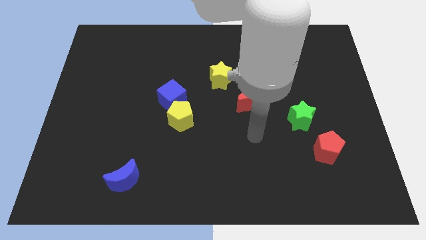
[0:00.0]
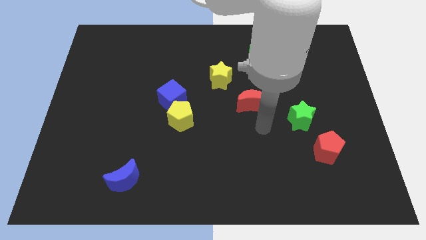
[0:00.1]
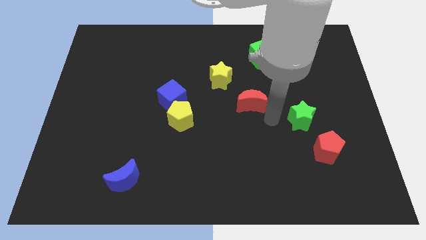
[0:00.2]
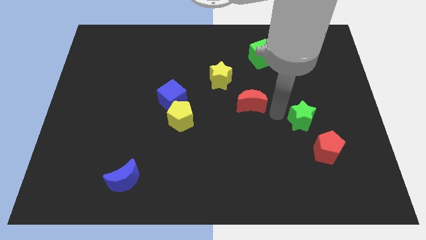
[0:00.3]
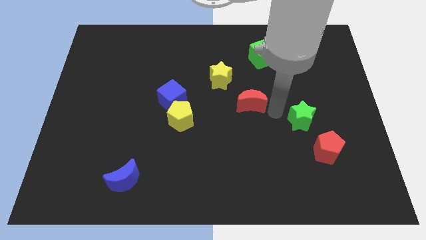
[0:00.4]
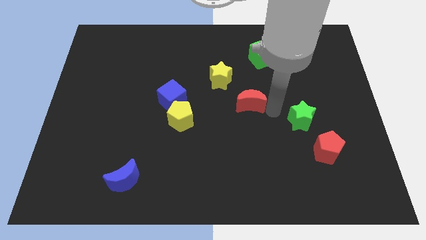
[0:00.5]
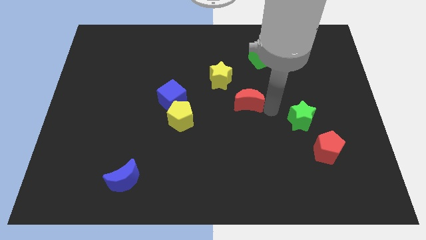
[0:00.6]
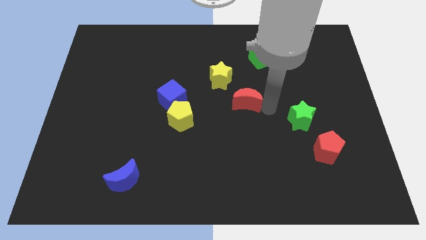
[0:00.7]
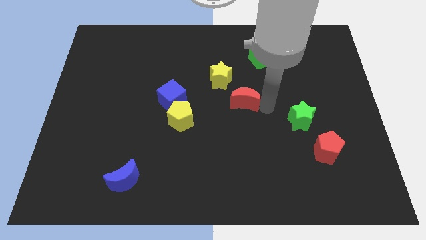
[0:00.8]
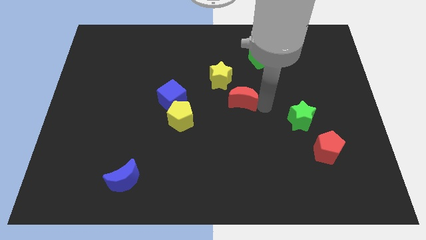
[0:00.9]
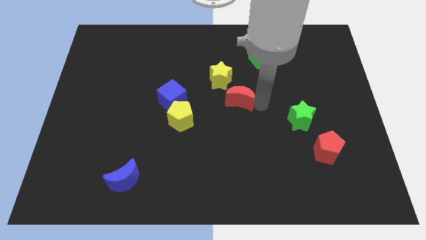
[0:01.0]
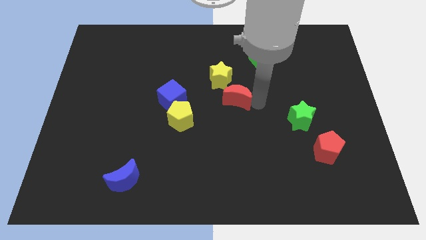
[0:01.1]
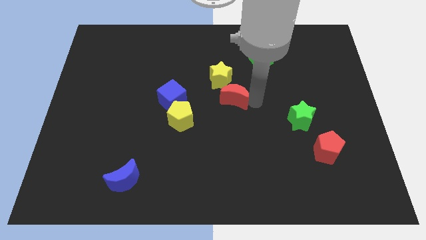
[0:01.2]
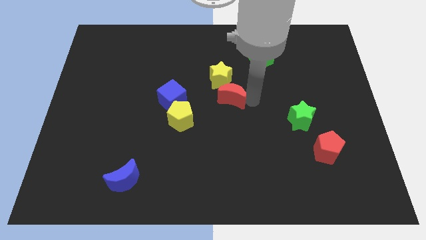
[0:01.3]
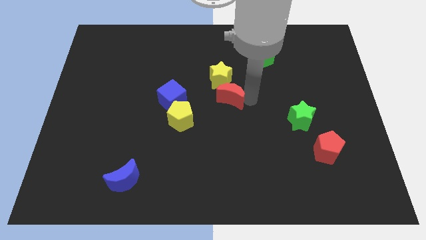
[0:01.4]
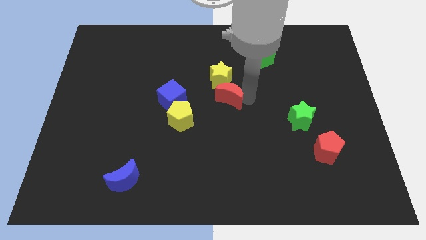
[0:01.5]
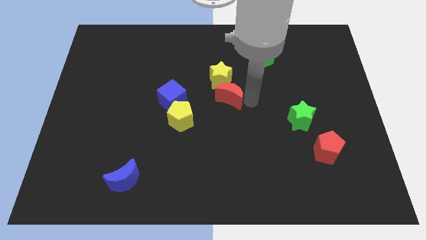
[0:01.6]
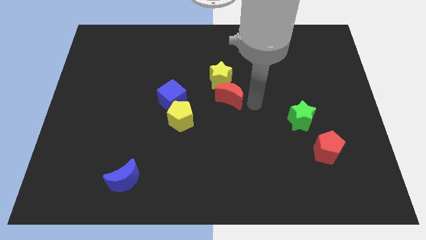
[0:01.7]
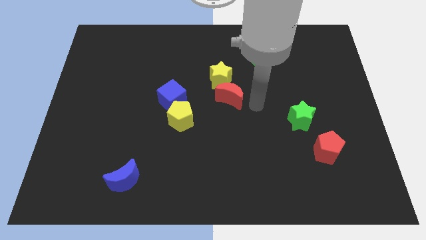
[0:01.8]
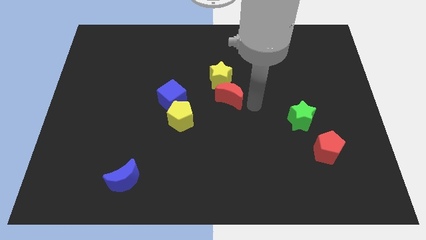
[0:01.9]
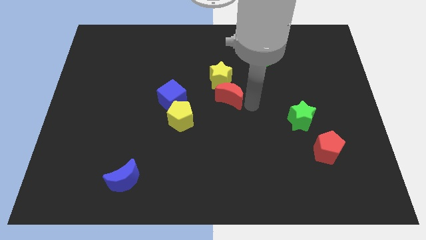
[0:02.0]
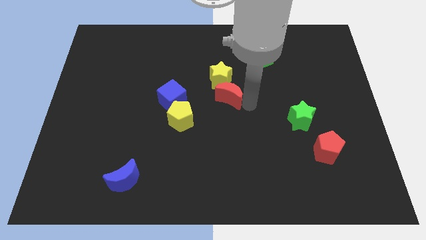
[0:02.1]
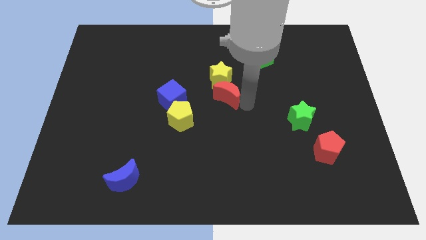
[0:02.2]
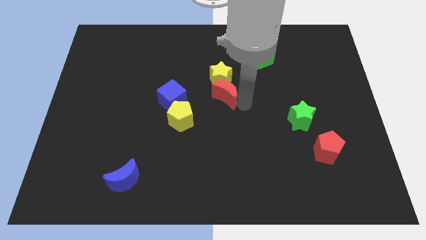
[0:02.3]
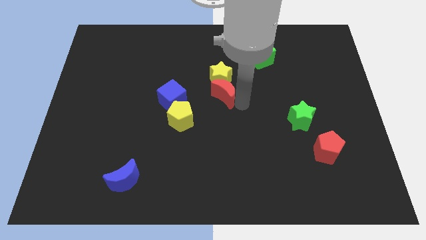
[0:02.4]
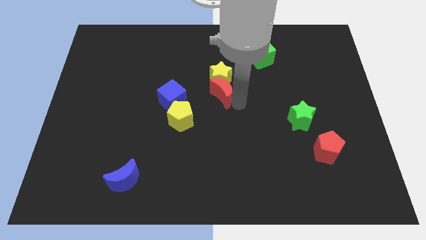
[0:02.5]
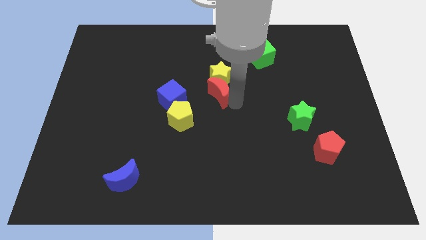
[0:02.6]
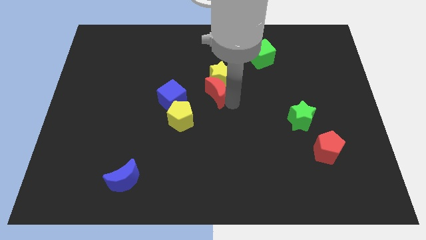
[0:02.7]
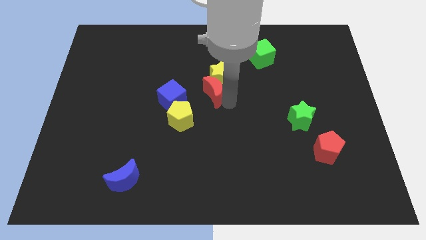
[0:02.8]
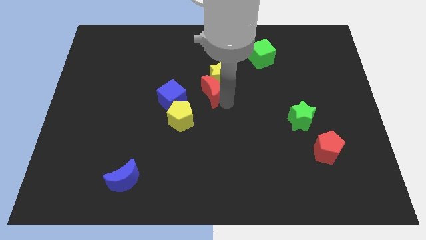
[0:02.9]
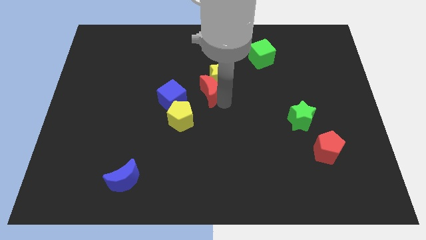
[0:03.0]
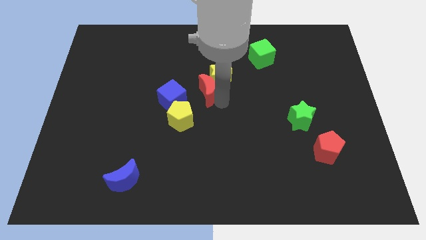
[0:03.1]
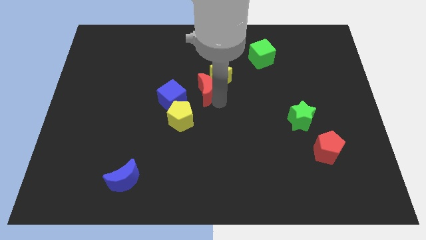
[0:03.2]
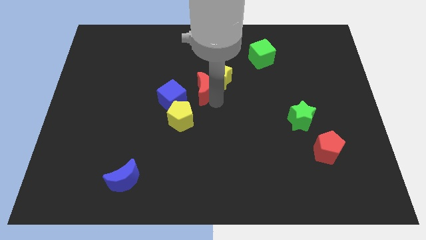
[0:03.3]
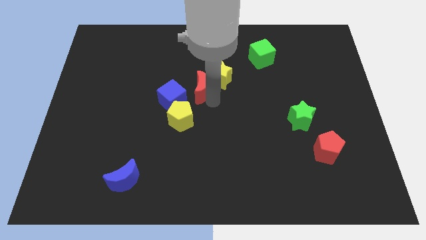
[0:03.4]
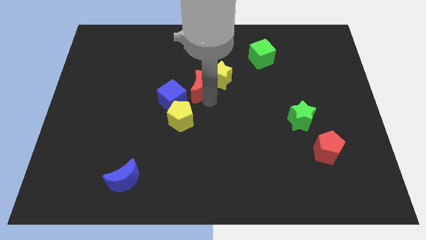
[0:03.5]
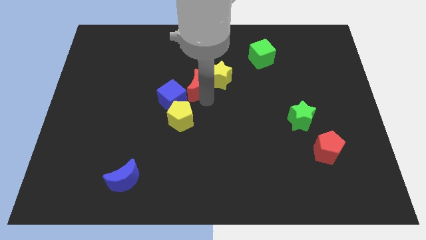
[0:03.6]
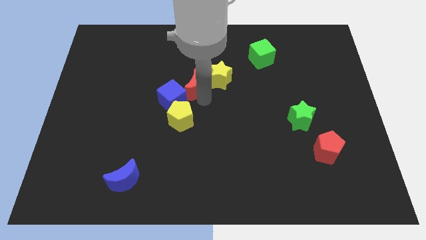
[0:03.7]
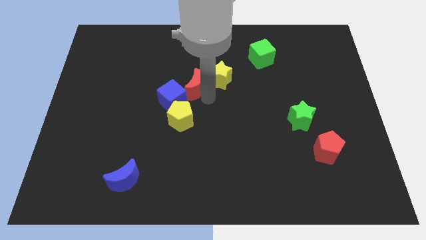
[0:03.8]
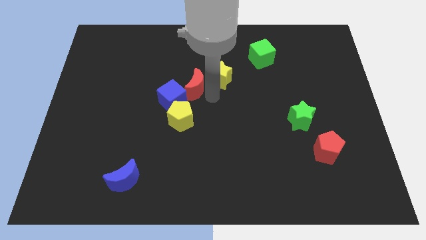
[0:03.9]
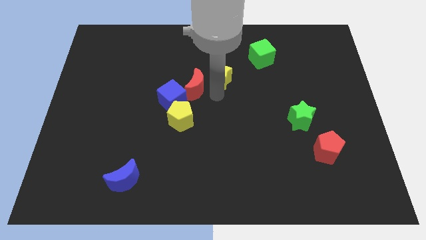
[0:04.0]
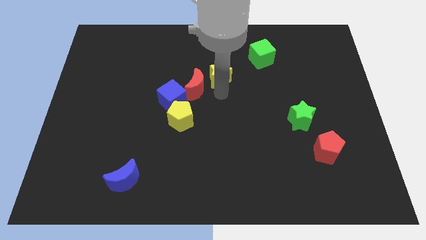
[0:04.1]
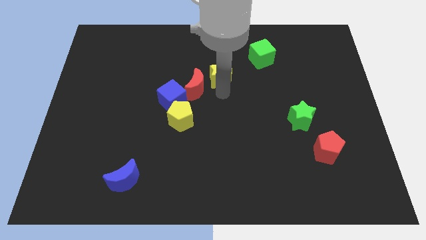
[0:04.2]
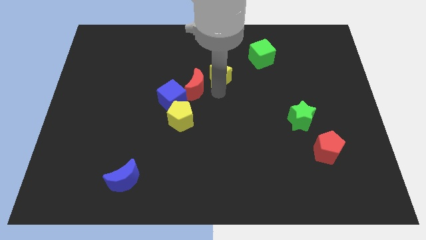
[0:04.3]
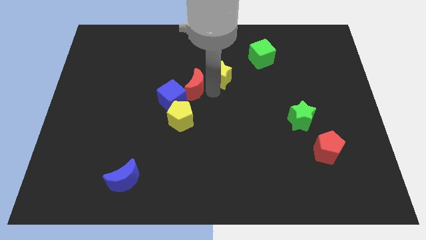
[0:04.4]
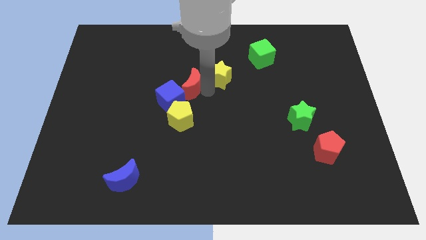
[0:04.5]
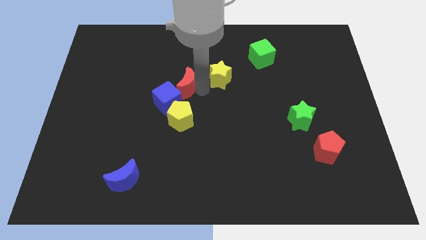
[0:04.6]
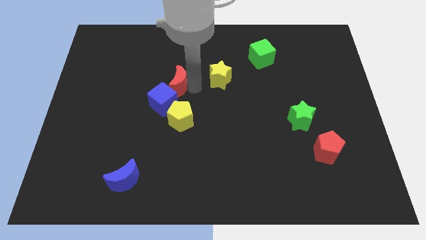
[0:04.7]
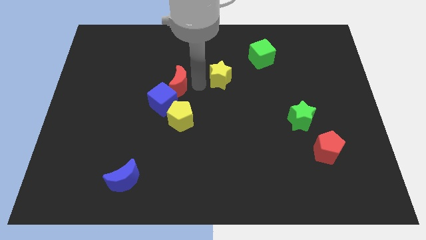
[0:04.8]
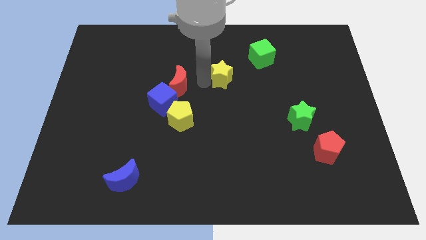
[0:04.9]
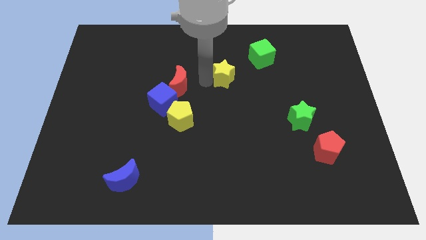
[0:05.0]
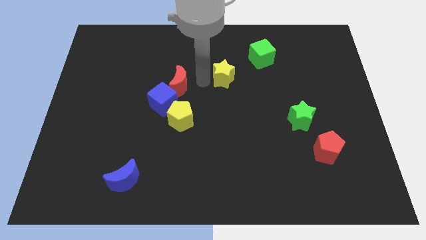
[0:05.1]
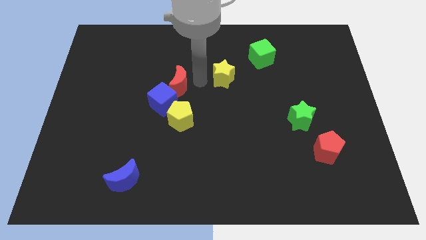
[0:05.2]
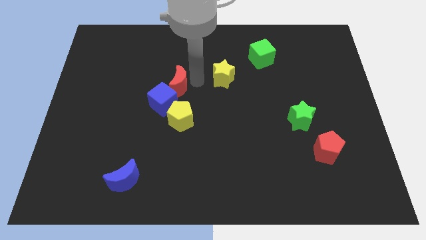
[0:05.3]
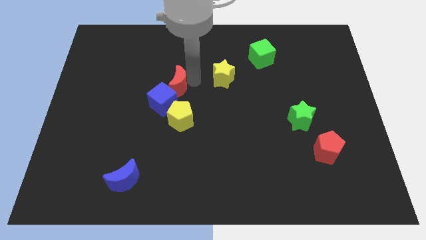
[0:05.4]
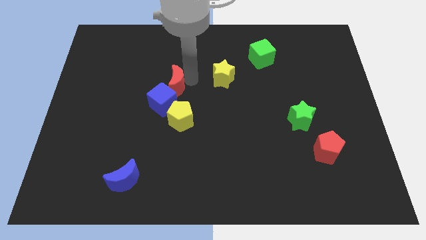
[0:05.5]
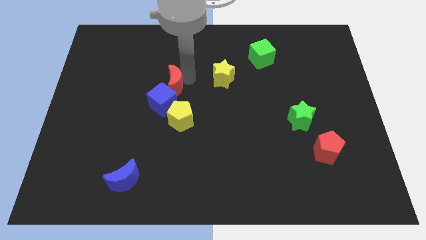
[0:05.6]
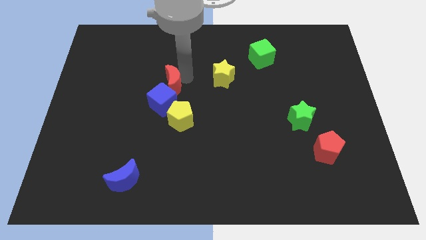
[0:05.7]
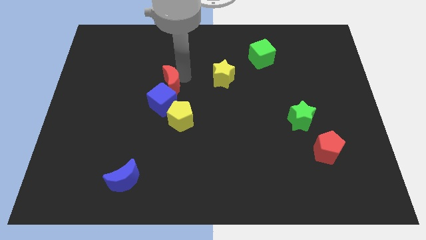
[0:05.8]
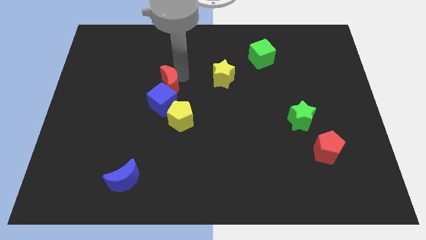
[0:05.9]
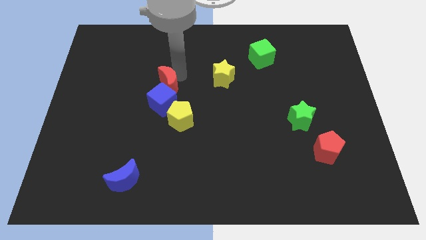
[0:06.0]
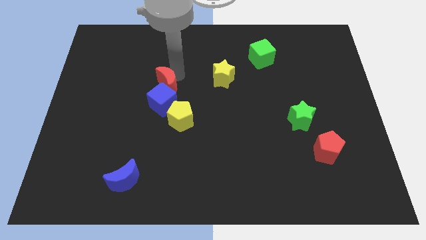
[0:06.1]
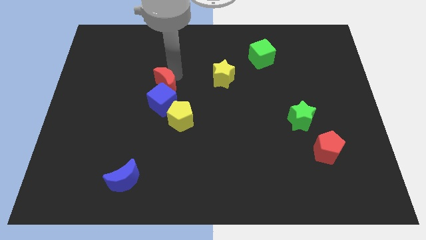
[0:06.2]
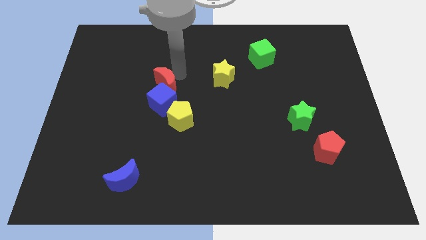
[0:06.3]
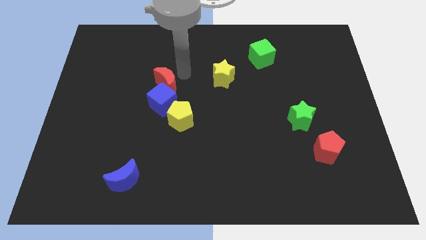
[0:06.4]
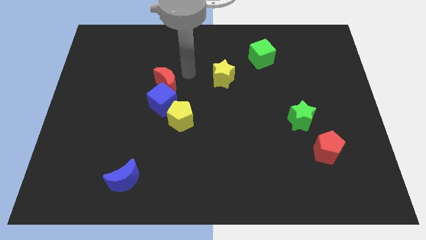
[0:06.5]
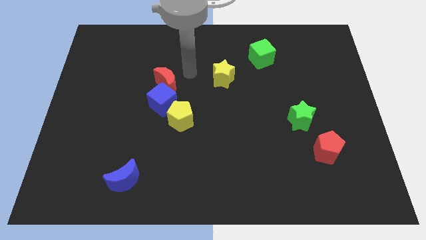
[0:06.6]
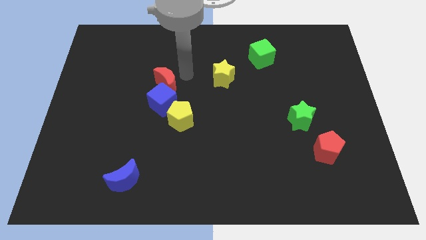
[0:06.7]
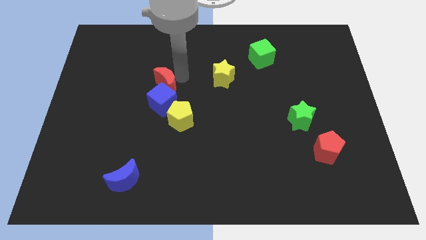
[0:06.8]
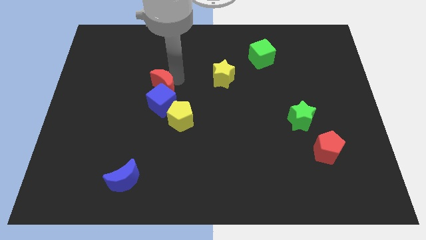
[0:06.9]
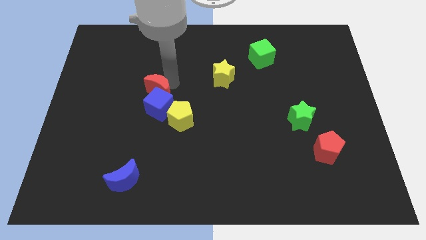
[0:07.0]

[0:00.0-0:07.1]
move the red moon to the left

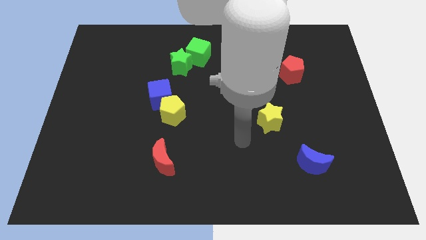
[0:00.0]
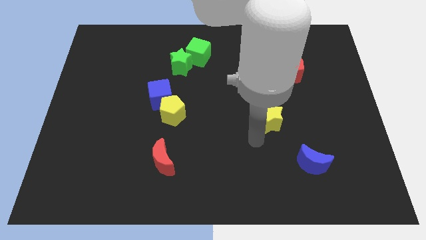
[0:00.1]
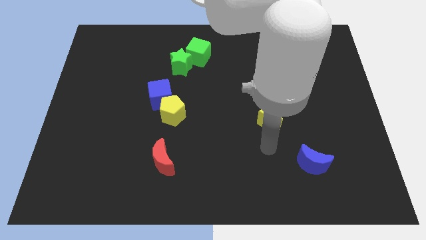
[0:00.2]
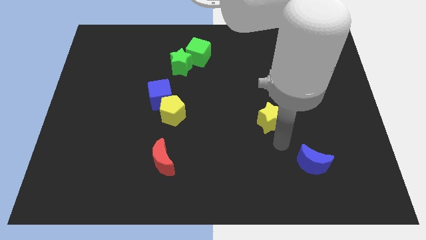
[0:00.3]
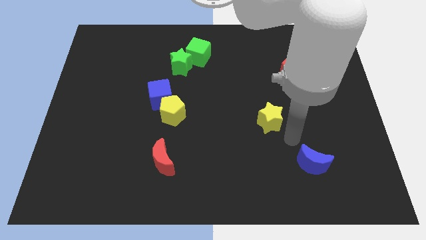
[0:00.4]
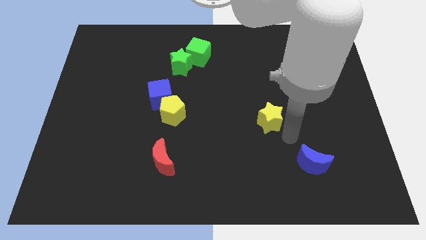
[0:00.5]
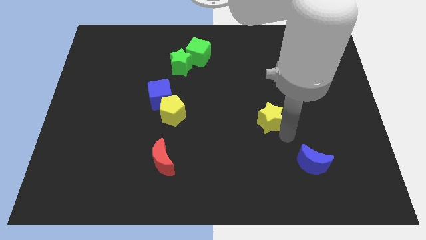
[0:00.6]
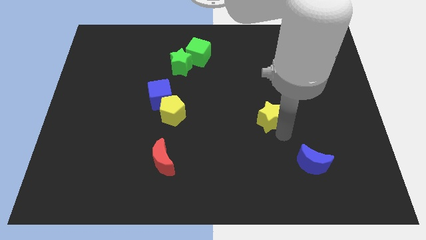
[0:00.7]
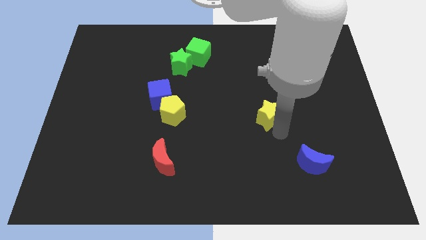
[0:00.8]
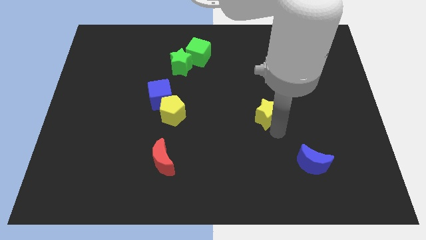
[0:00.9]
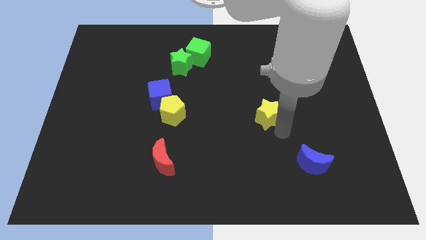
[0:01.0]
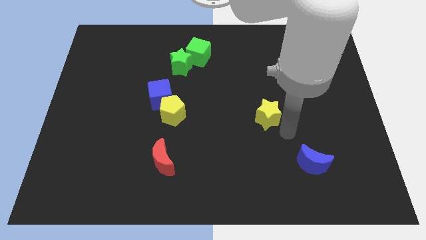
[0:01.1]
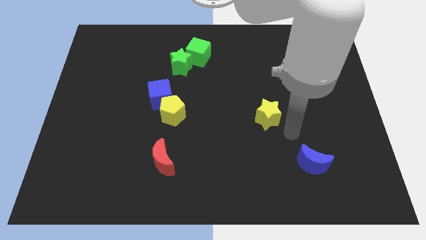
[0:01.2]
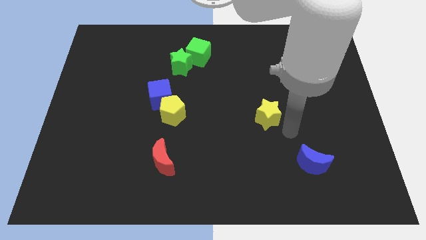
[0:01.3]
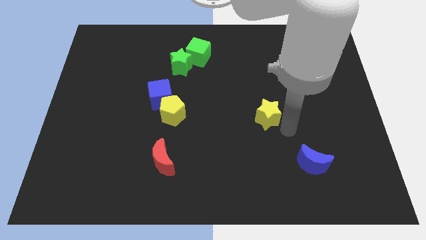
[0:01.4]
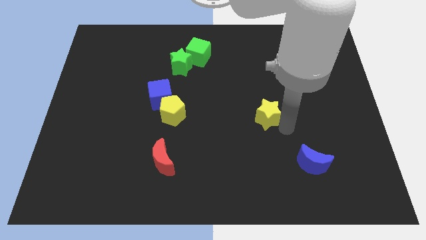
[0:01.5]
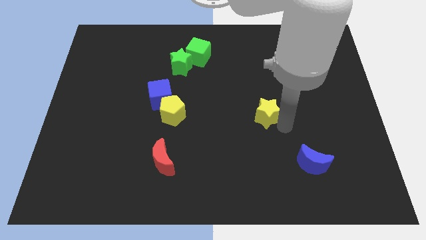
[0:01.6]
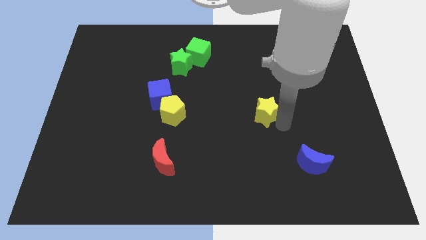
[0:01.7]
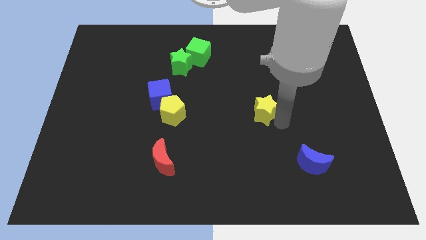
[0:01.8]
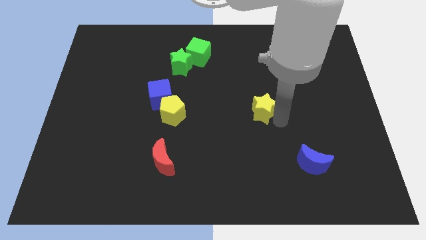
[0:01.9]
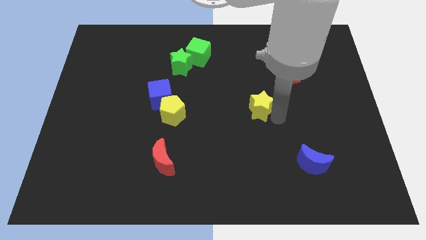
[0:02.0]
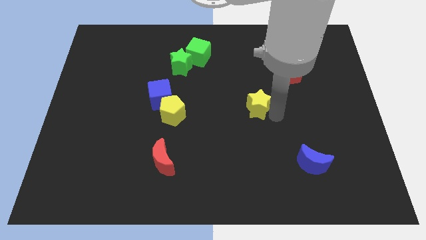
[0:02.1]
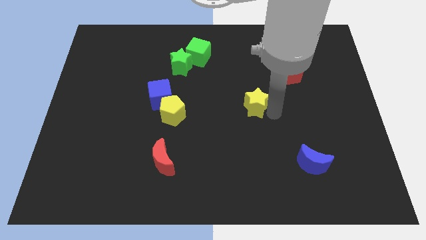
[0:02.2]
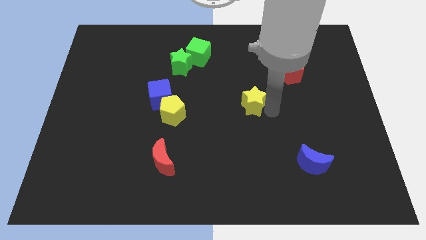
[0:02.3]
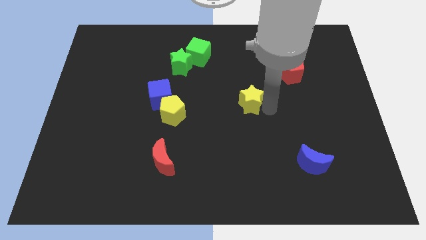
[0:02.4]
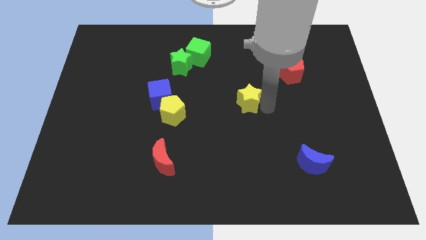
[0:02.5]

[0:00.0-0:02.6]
slightly push the yellow star diagonally up and to the left
